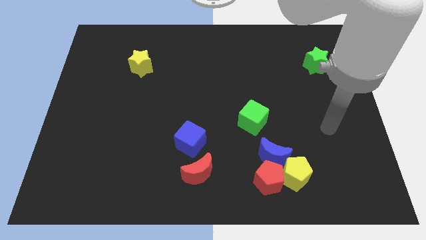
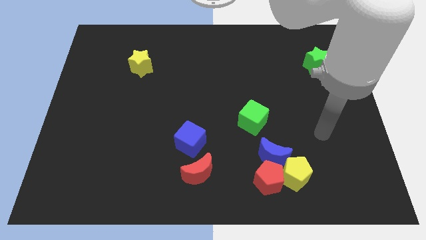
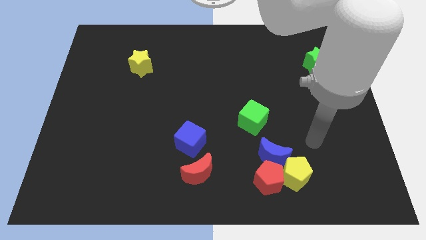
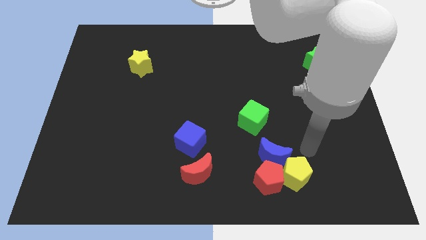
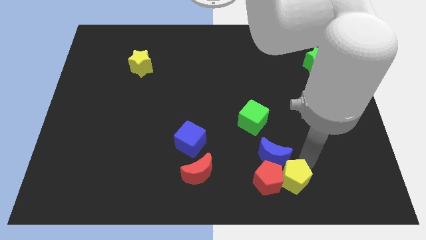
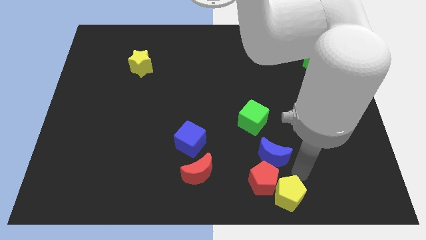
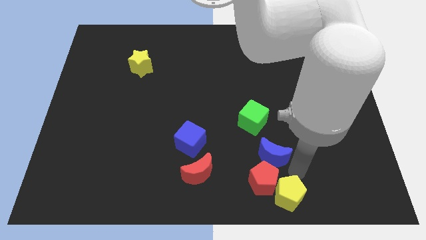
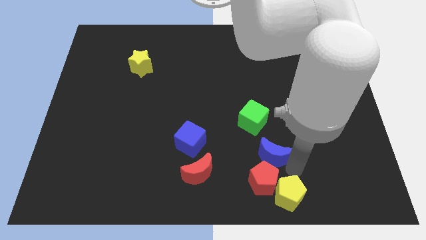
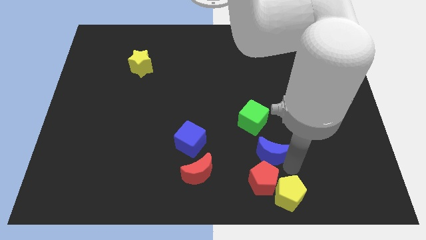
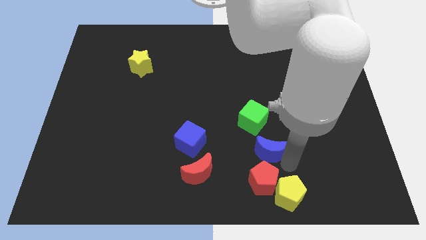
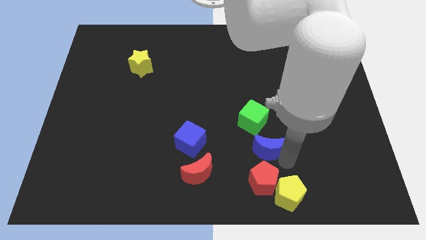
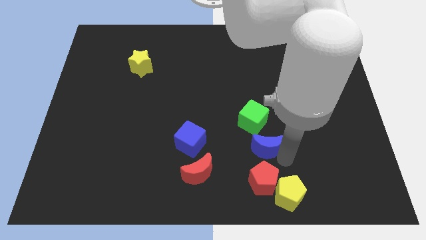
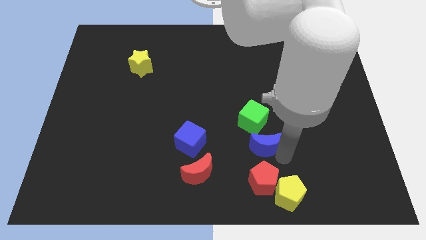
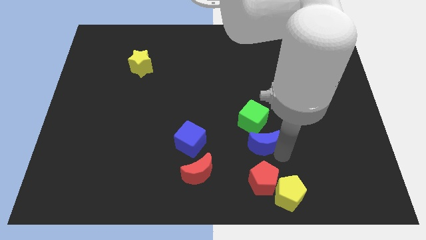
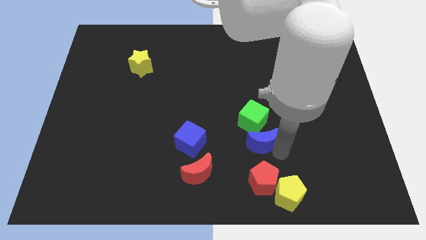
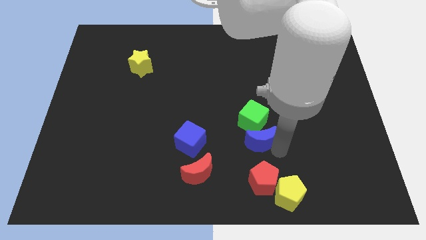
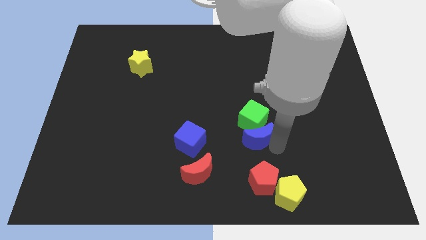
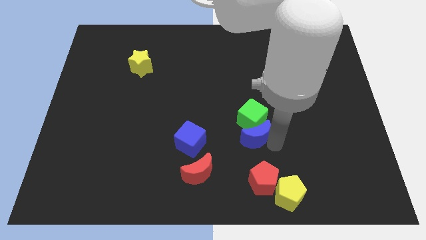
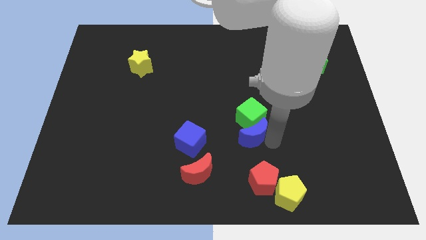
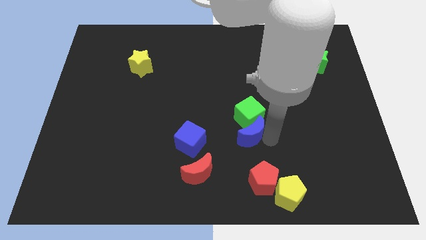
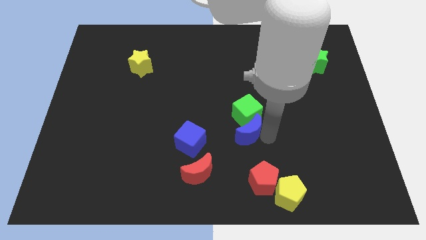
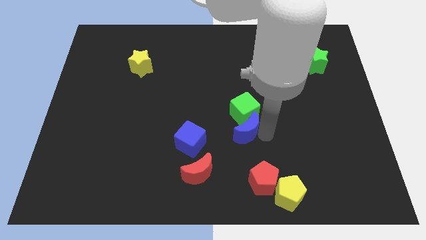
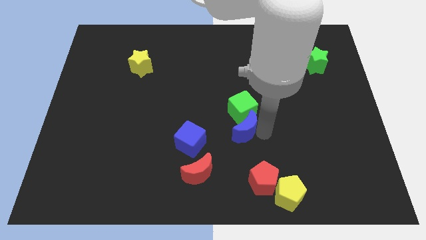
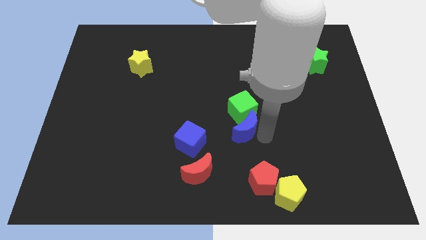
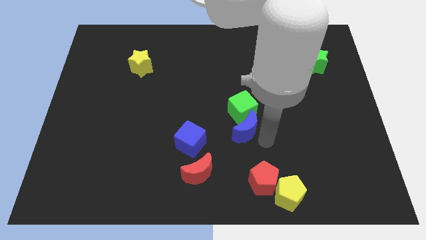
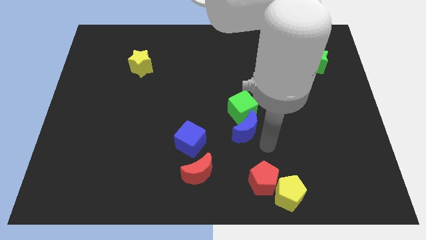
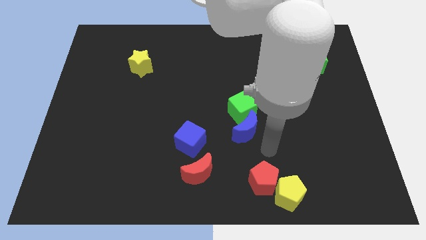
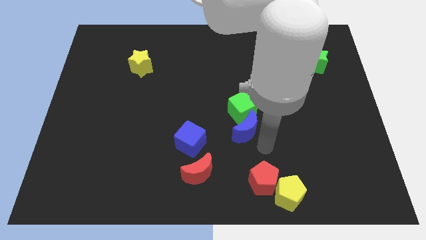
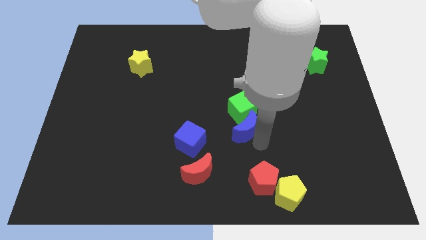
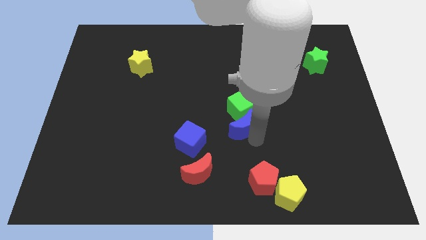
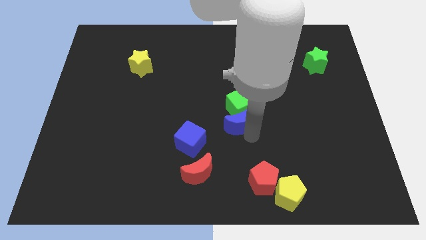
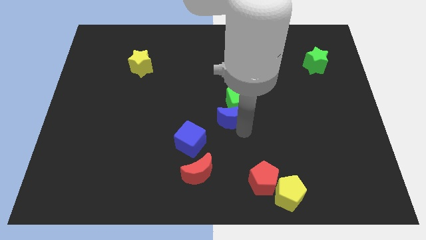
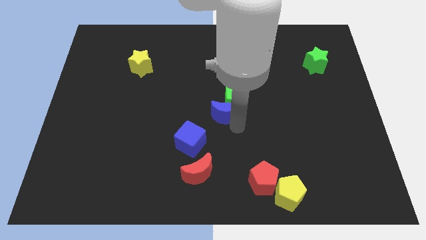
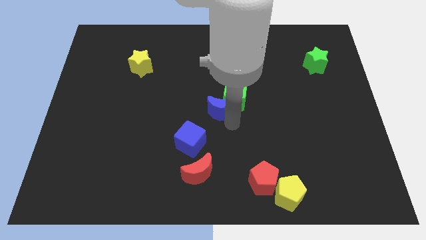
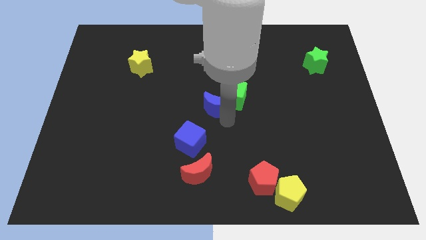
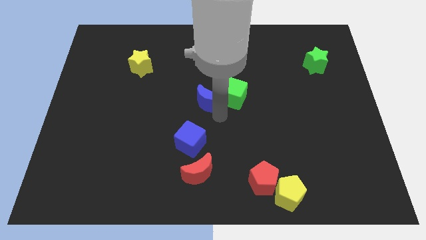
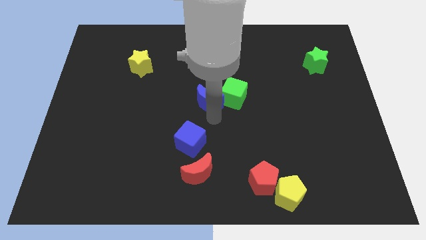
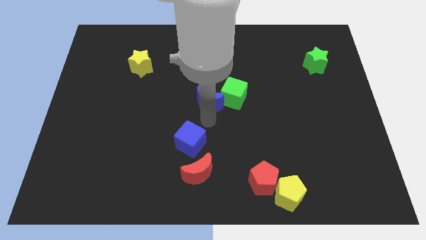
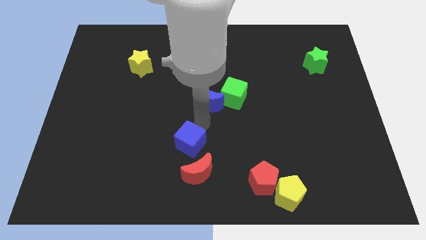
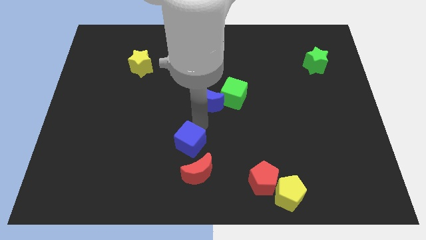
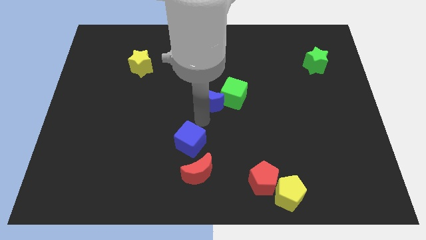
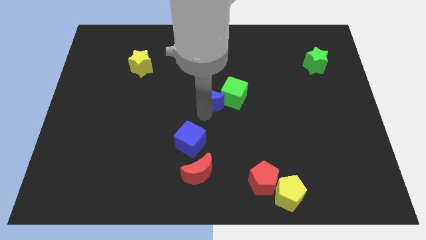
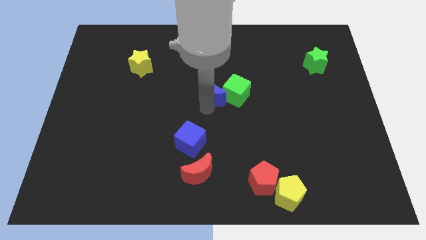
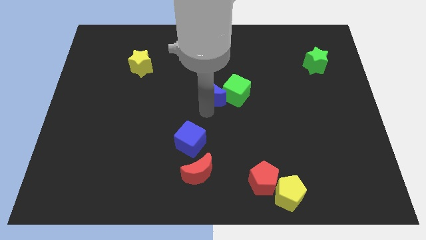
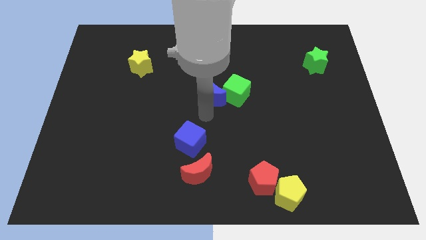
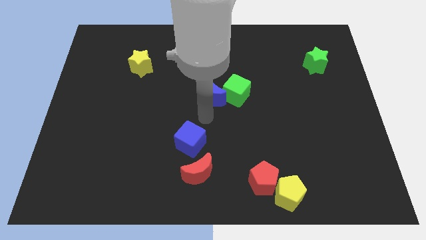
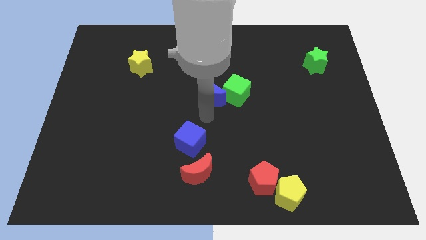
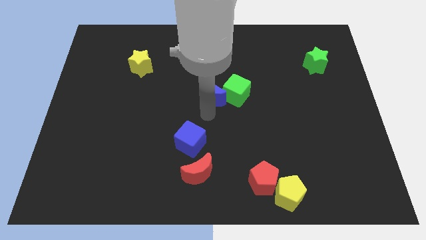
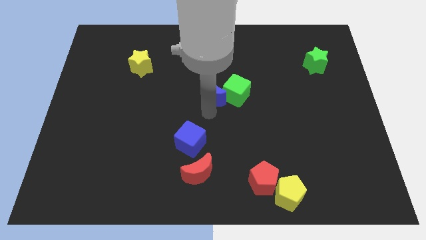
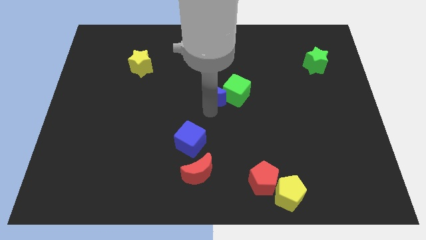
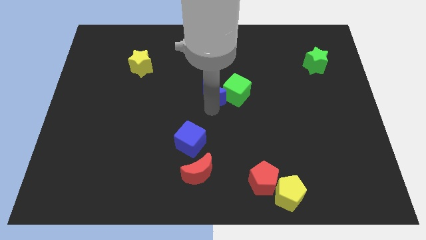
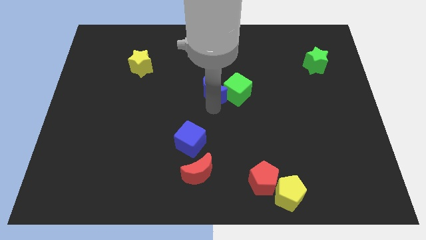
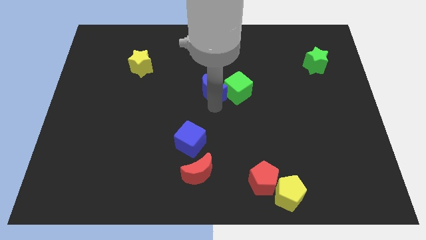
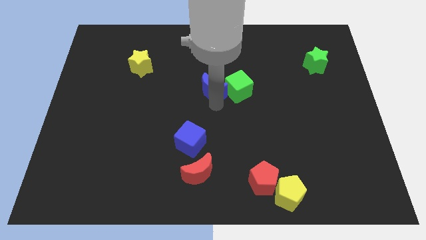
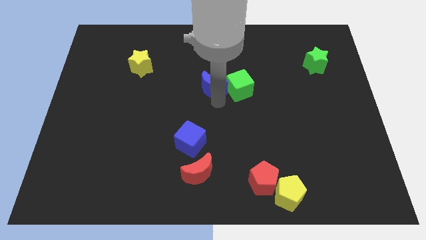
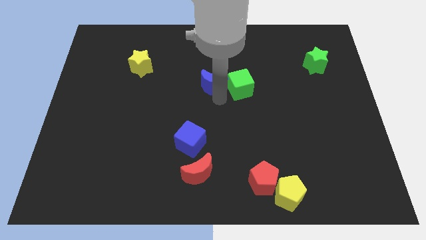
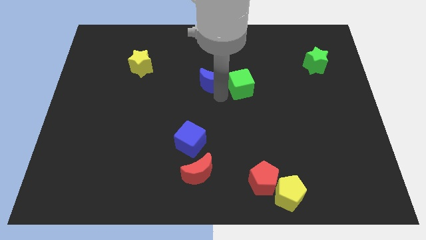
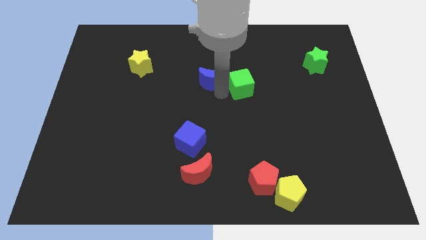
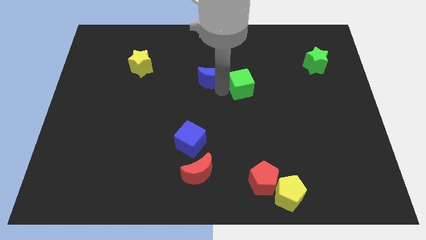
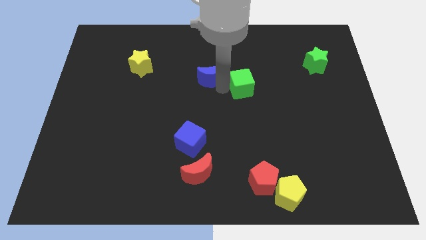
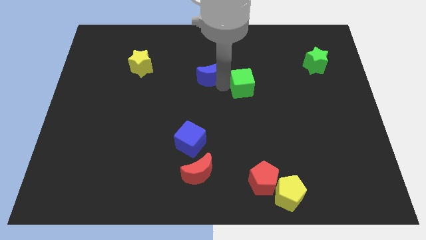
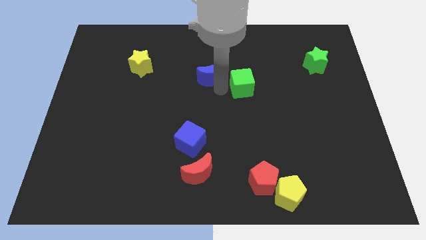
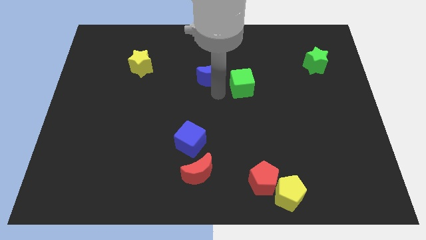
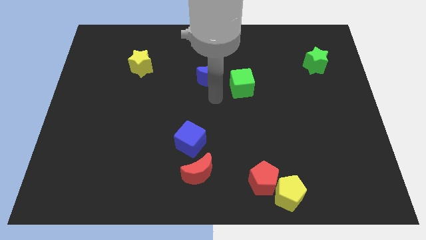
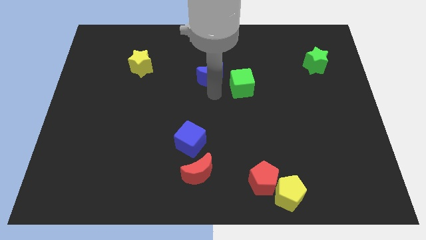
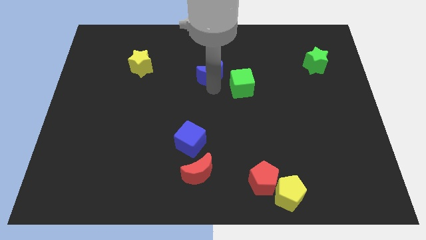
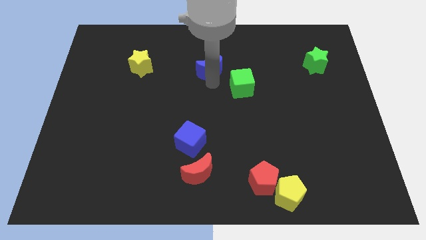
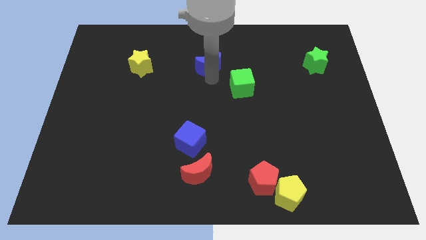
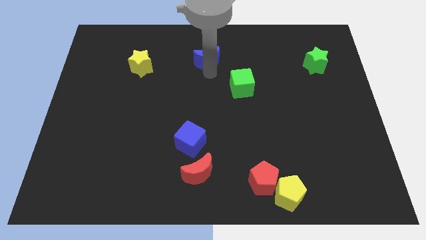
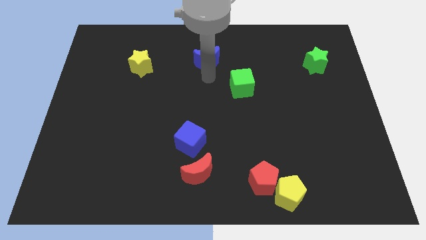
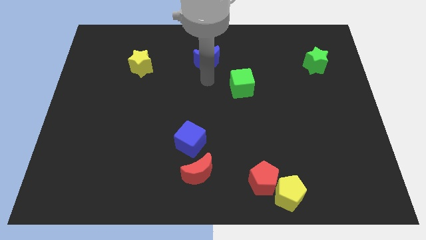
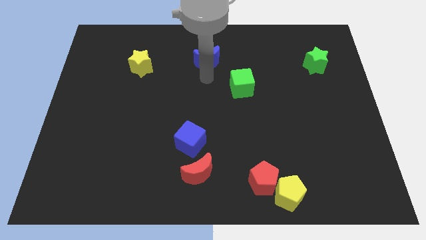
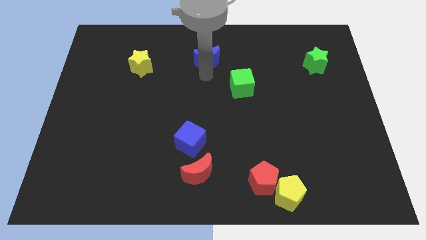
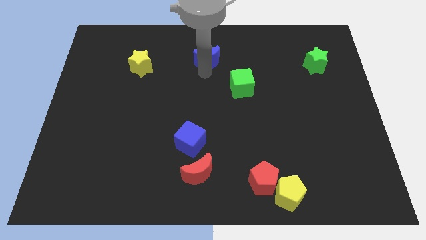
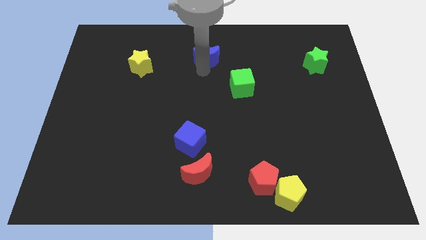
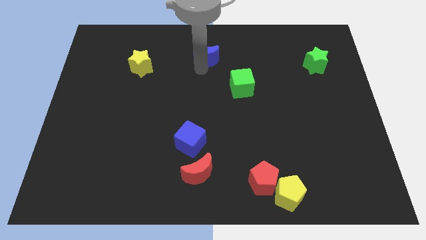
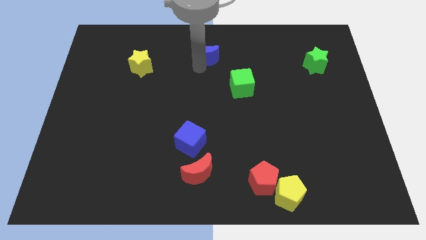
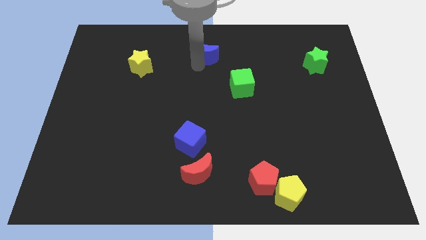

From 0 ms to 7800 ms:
slide the blue moon to the top side
